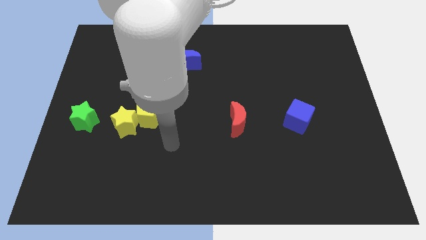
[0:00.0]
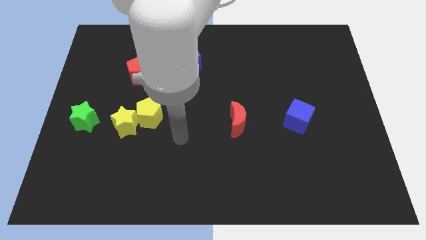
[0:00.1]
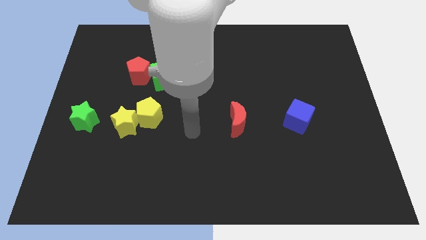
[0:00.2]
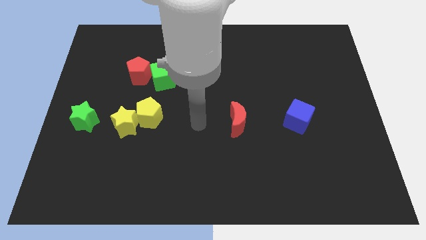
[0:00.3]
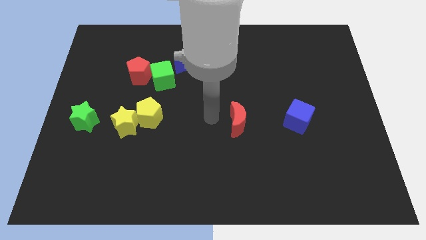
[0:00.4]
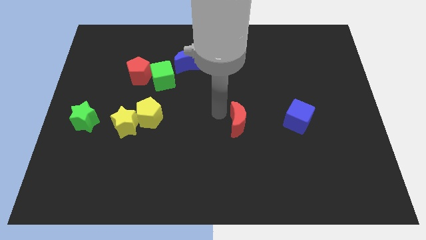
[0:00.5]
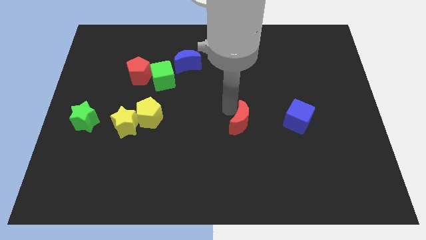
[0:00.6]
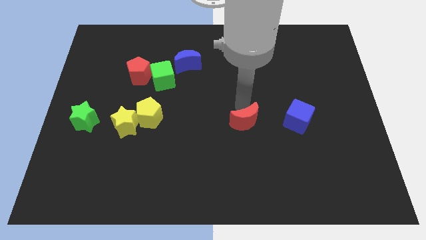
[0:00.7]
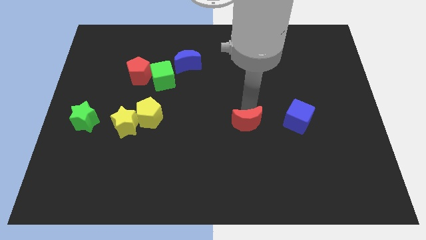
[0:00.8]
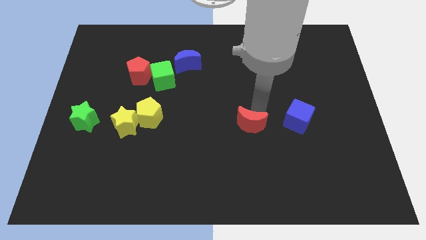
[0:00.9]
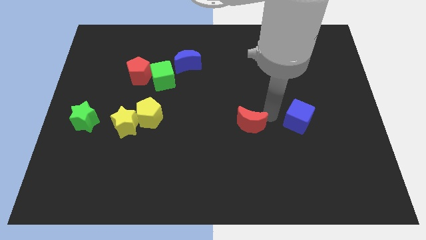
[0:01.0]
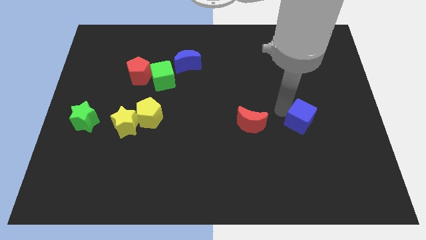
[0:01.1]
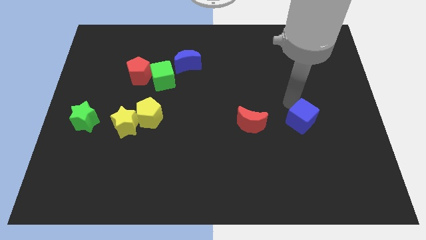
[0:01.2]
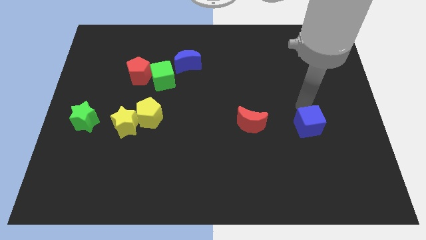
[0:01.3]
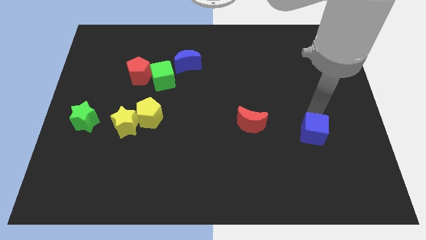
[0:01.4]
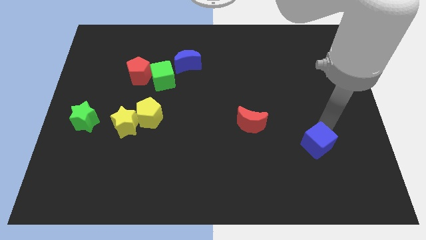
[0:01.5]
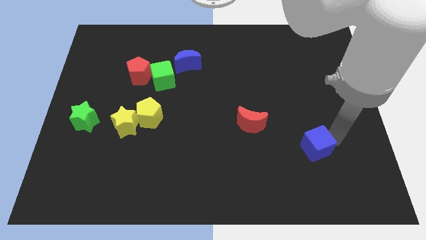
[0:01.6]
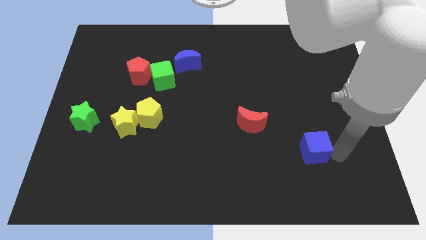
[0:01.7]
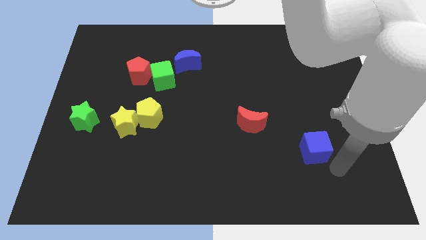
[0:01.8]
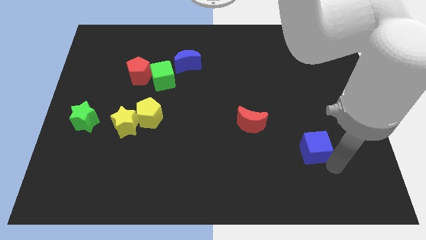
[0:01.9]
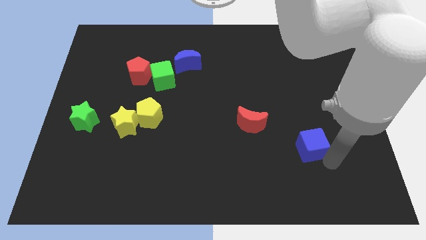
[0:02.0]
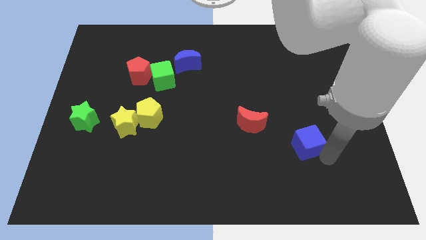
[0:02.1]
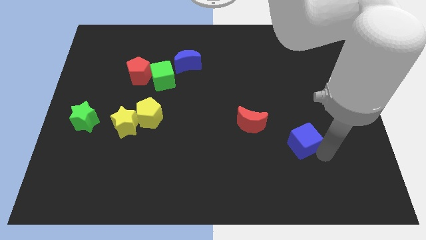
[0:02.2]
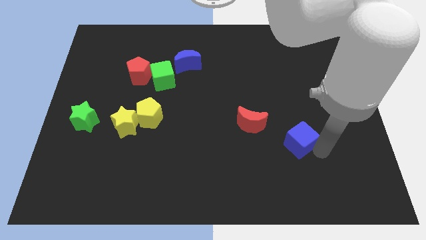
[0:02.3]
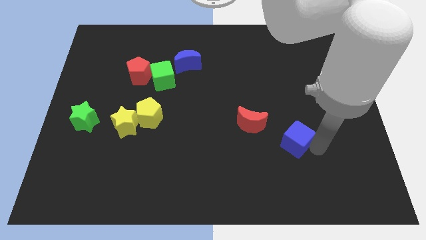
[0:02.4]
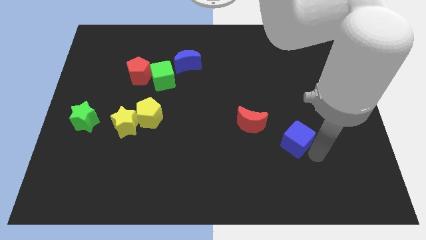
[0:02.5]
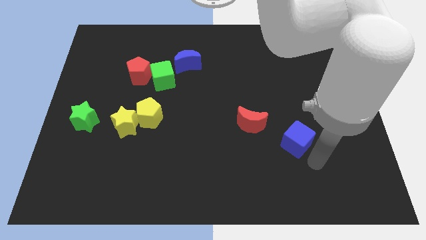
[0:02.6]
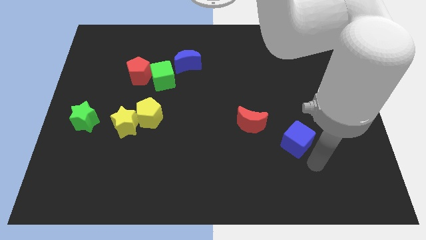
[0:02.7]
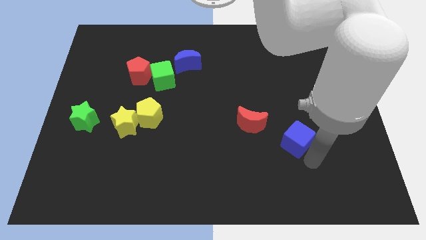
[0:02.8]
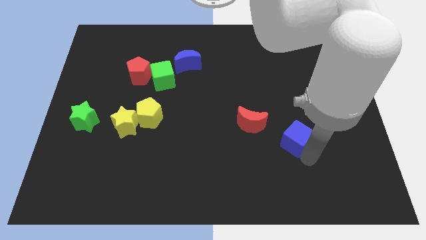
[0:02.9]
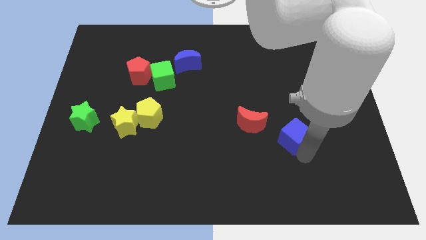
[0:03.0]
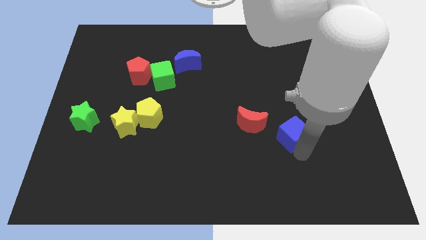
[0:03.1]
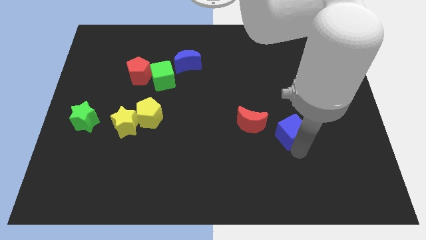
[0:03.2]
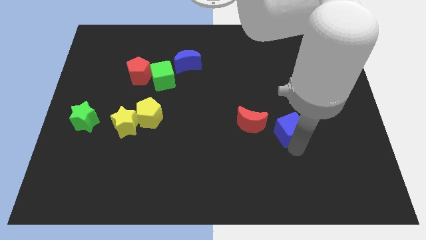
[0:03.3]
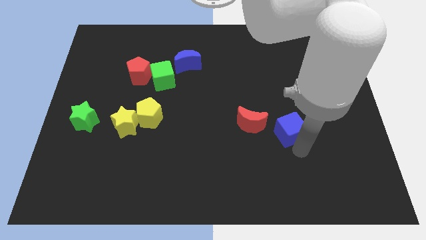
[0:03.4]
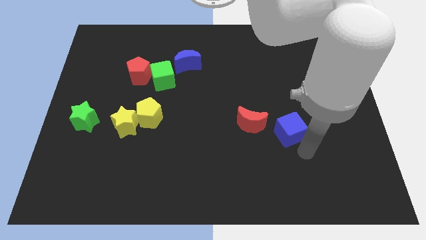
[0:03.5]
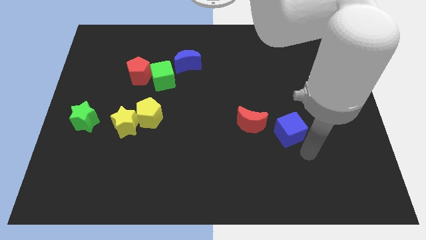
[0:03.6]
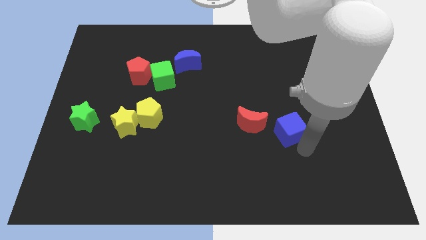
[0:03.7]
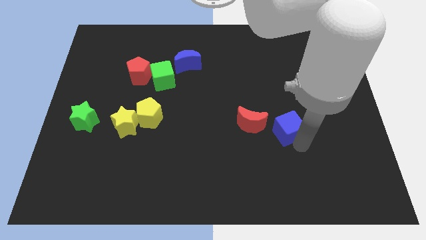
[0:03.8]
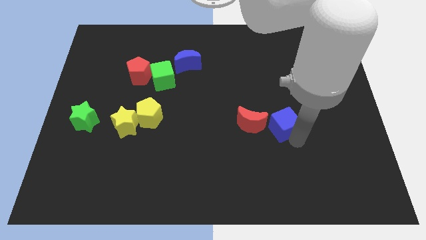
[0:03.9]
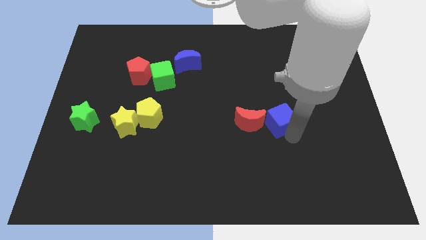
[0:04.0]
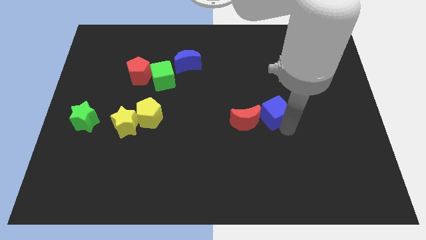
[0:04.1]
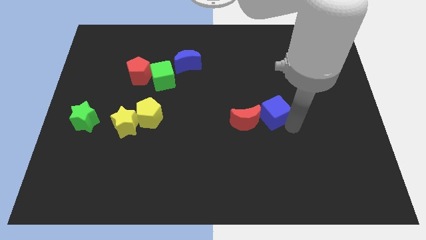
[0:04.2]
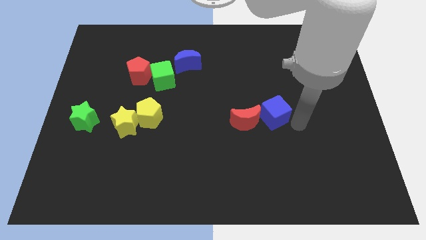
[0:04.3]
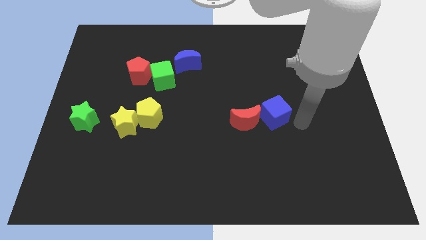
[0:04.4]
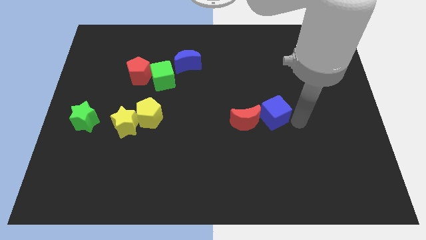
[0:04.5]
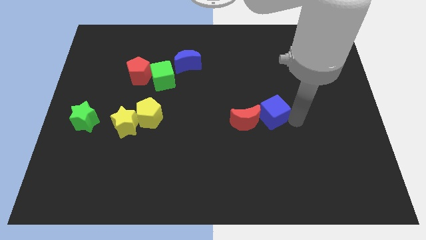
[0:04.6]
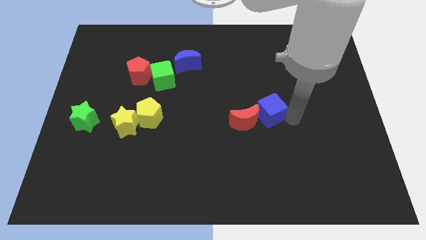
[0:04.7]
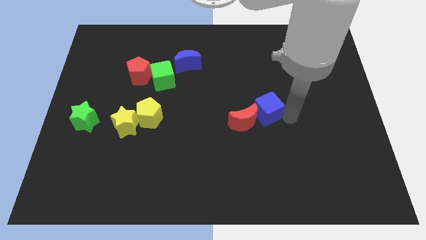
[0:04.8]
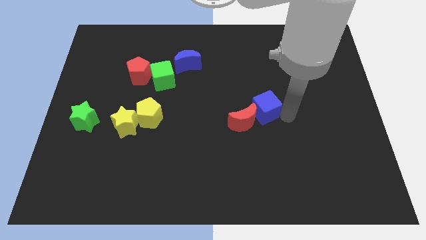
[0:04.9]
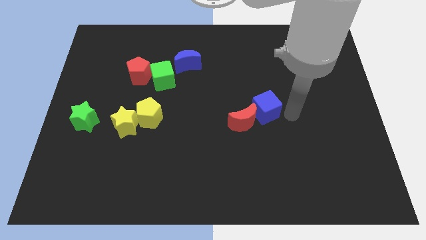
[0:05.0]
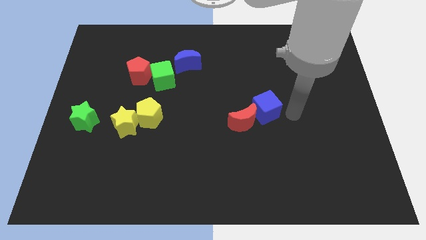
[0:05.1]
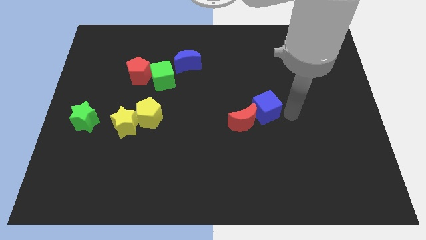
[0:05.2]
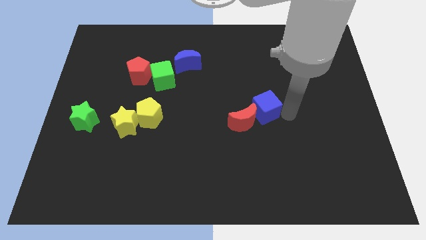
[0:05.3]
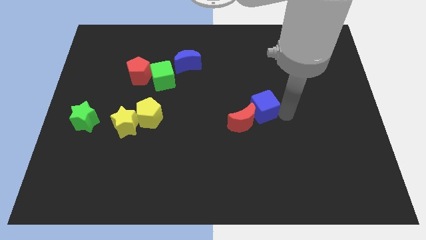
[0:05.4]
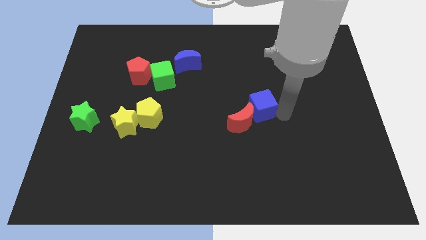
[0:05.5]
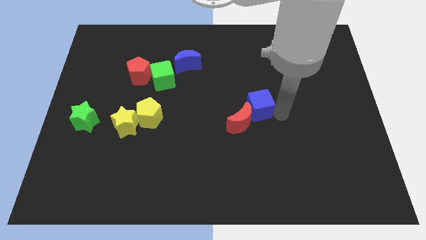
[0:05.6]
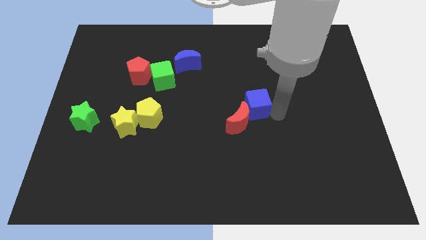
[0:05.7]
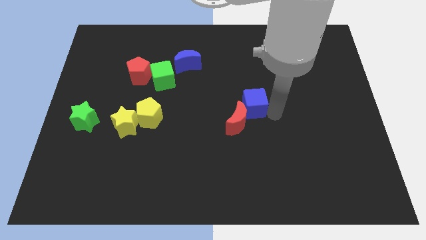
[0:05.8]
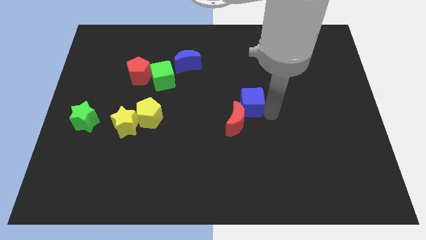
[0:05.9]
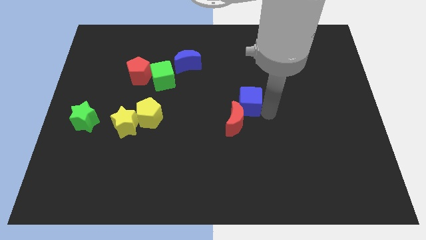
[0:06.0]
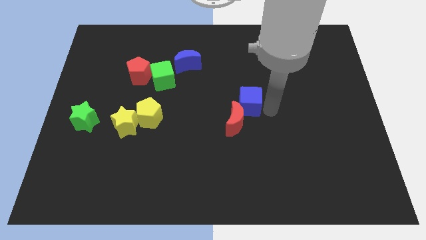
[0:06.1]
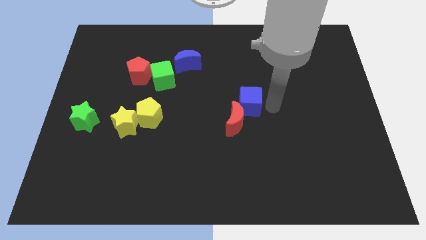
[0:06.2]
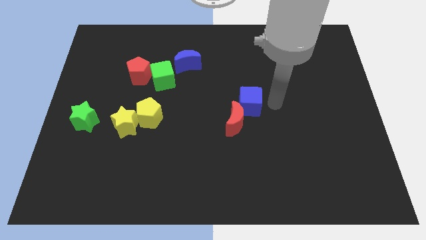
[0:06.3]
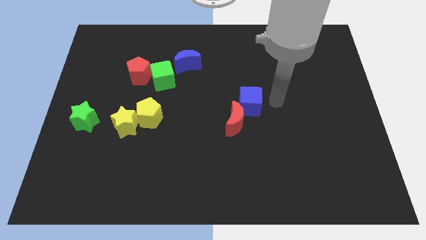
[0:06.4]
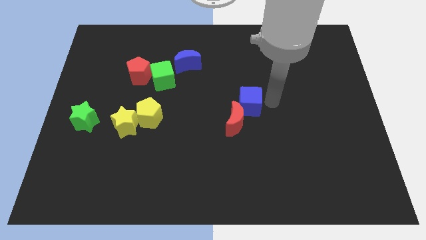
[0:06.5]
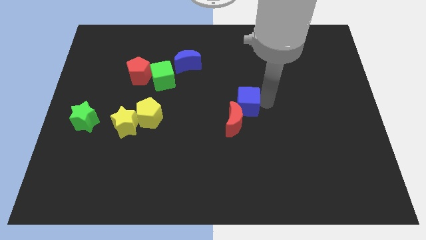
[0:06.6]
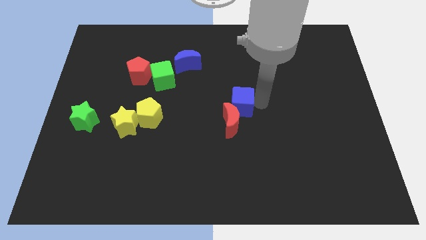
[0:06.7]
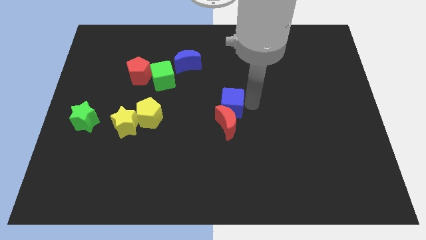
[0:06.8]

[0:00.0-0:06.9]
push the blue cube to the top left of the red moon
